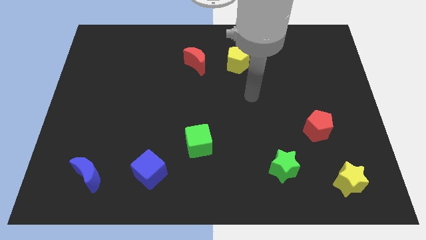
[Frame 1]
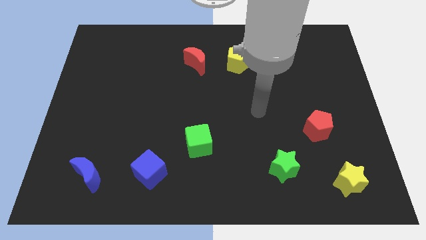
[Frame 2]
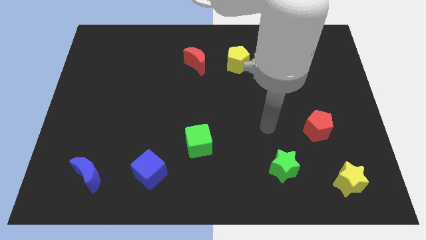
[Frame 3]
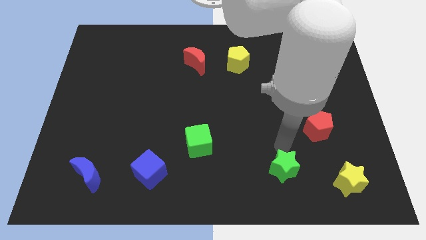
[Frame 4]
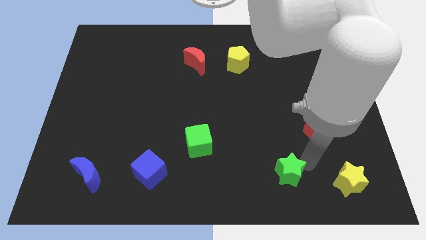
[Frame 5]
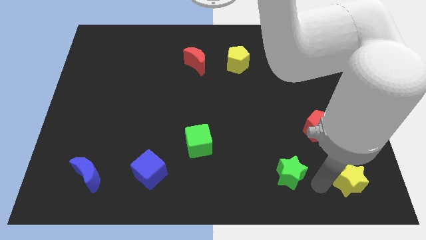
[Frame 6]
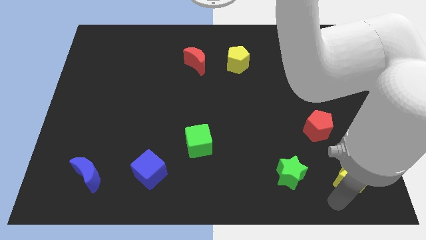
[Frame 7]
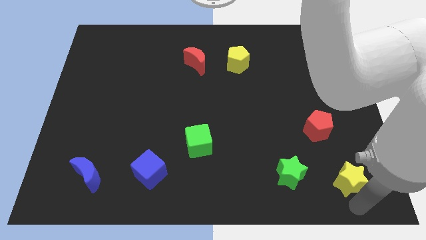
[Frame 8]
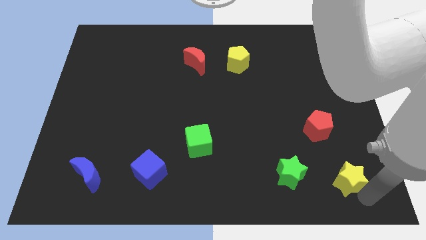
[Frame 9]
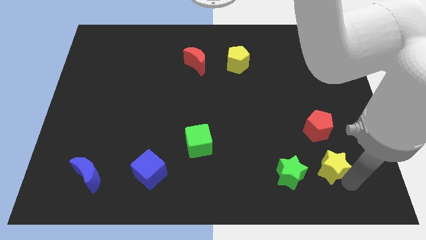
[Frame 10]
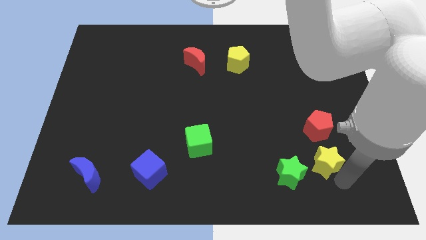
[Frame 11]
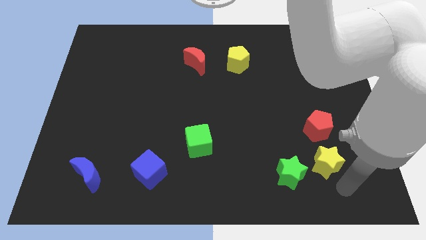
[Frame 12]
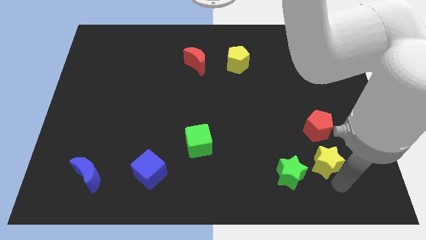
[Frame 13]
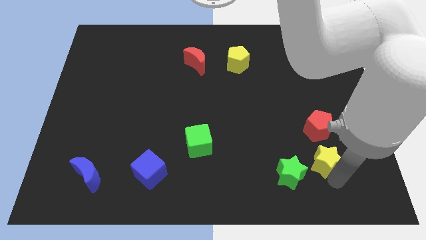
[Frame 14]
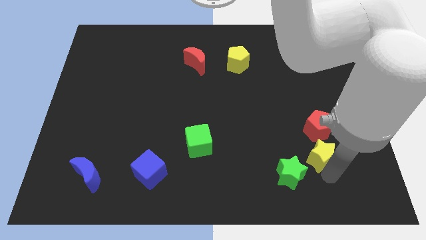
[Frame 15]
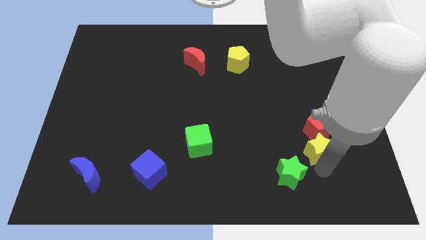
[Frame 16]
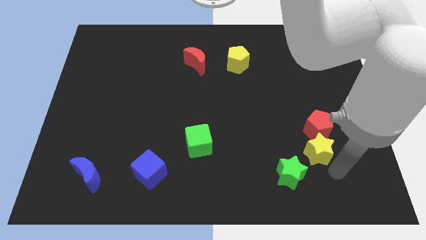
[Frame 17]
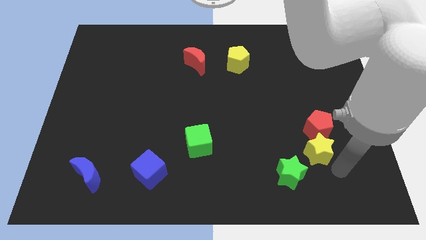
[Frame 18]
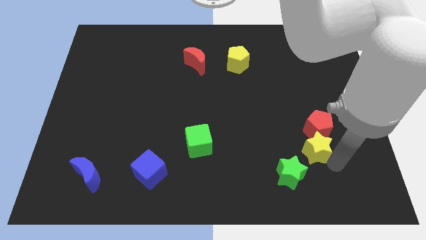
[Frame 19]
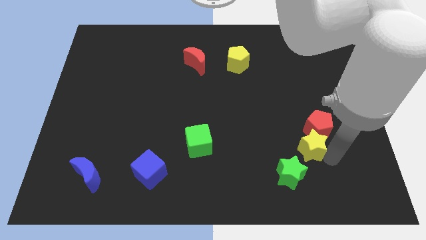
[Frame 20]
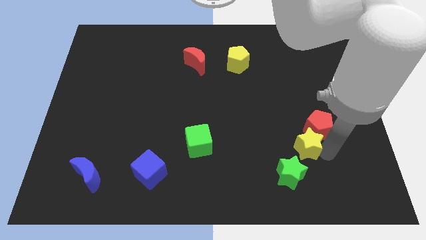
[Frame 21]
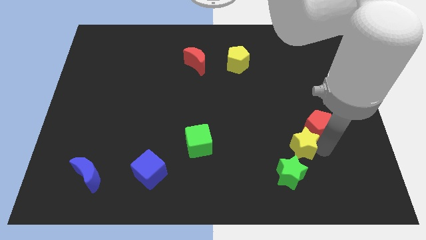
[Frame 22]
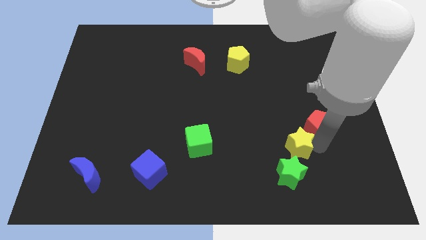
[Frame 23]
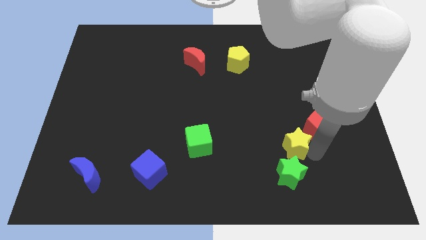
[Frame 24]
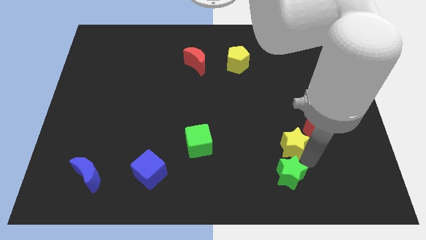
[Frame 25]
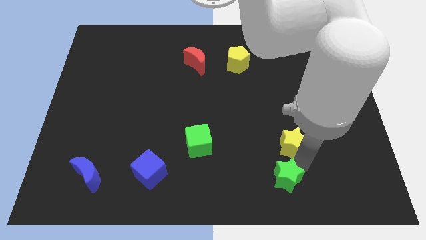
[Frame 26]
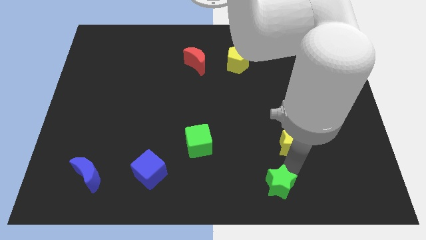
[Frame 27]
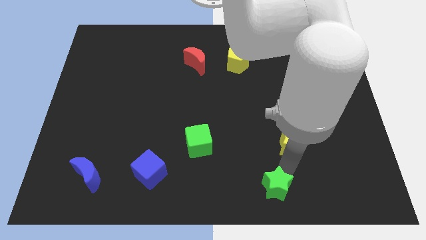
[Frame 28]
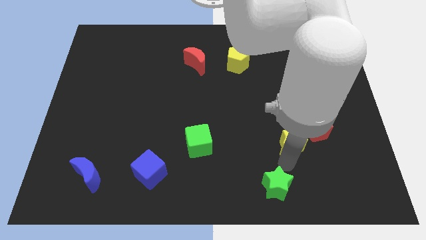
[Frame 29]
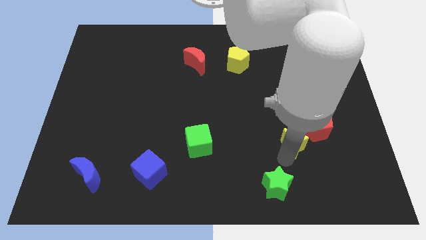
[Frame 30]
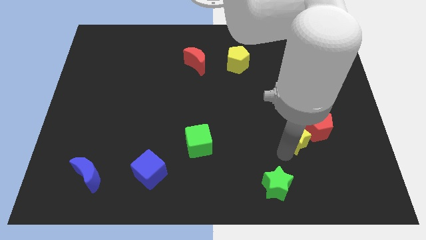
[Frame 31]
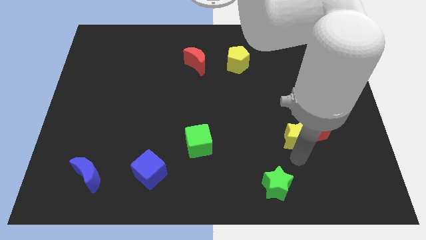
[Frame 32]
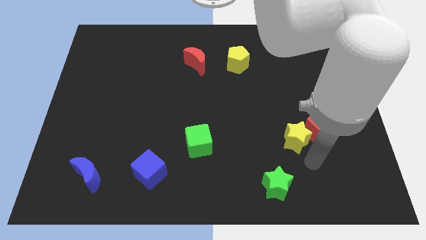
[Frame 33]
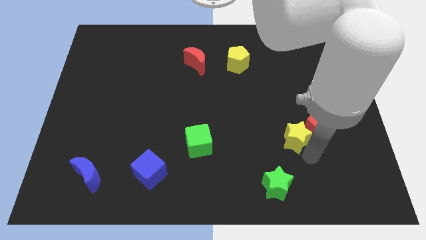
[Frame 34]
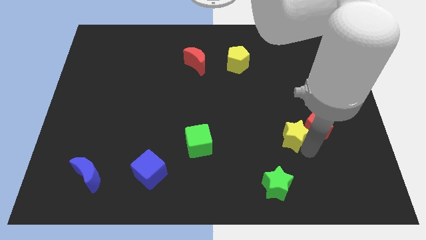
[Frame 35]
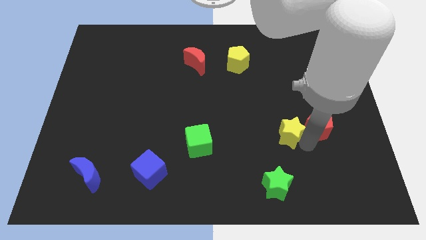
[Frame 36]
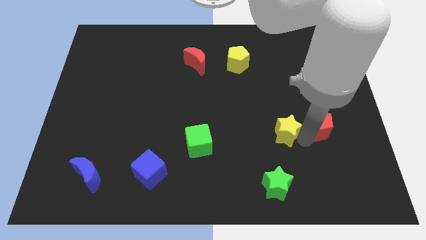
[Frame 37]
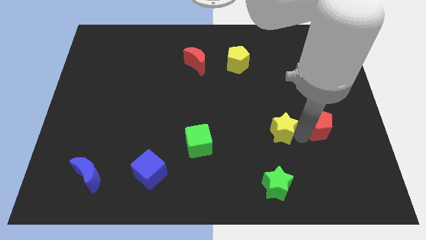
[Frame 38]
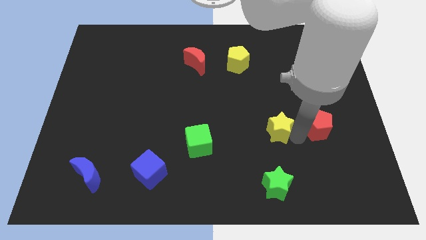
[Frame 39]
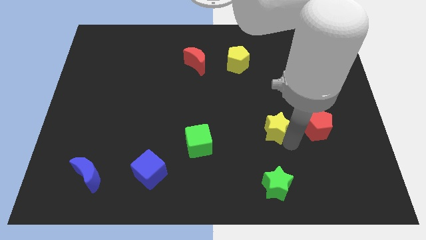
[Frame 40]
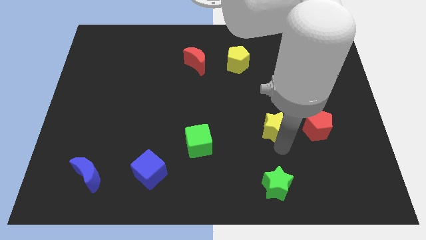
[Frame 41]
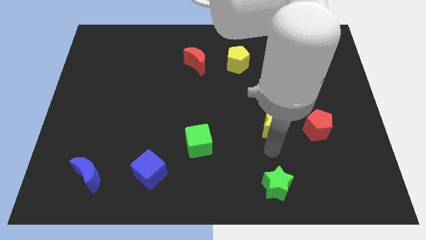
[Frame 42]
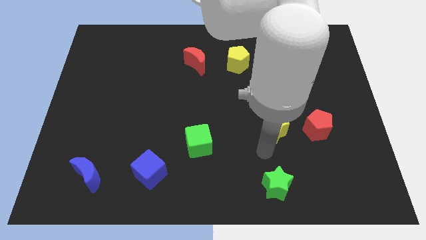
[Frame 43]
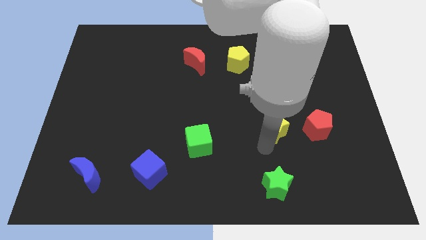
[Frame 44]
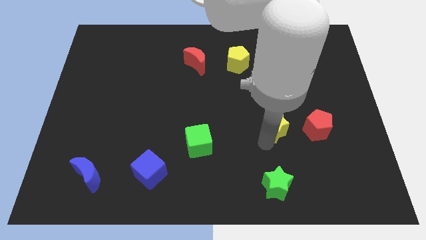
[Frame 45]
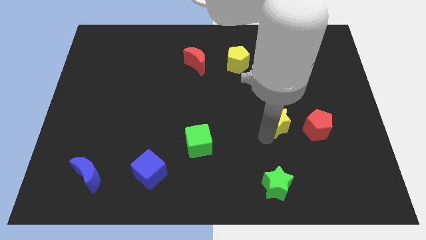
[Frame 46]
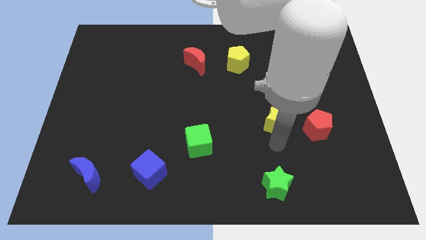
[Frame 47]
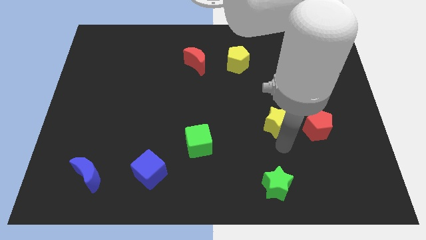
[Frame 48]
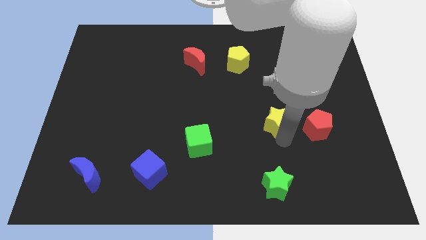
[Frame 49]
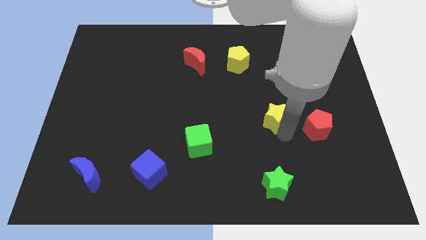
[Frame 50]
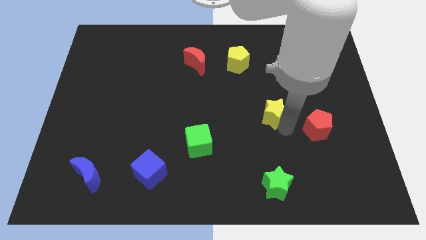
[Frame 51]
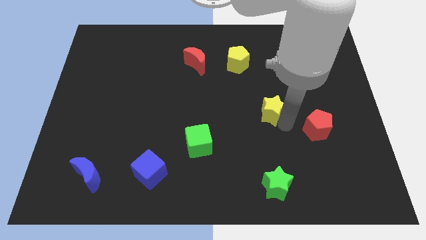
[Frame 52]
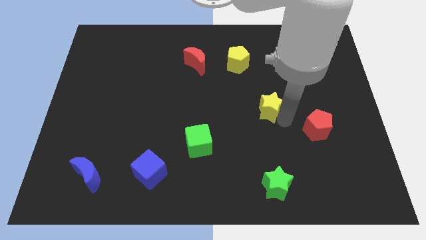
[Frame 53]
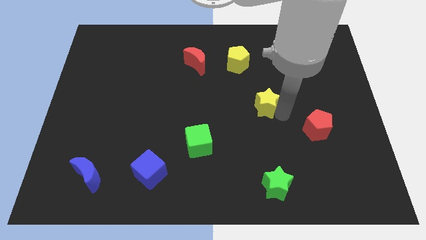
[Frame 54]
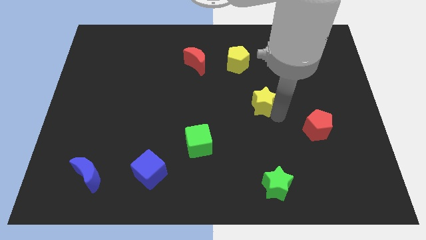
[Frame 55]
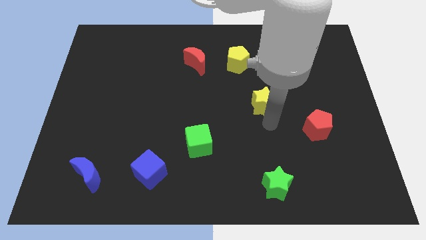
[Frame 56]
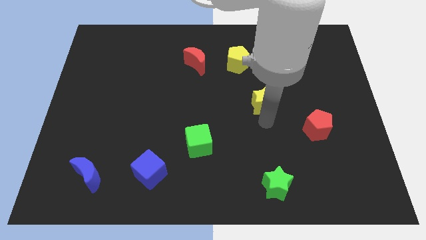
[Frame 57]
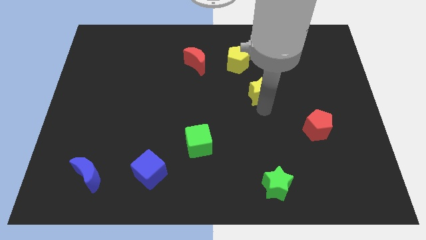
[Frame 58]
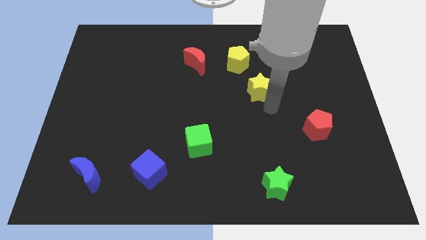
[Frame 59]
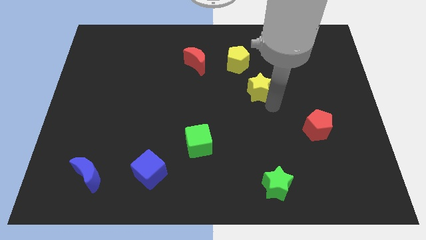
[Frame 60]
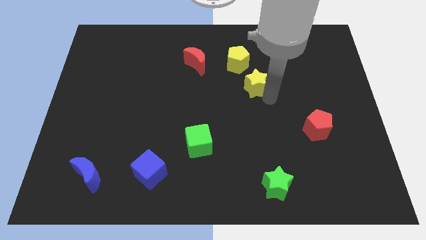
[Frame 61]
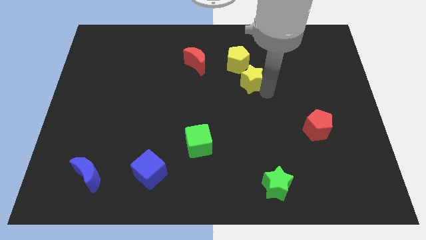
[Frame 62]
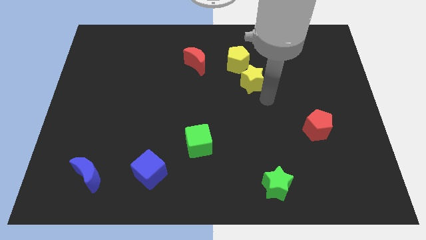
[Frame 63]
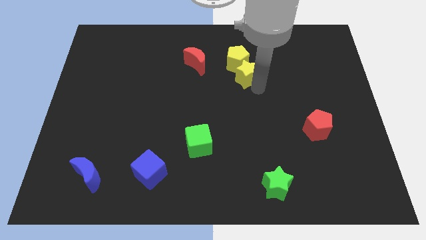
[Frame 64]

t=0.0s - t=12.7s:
push the yellow star towards the yellow pentagon

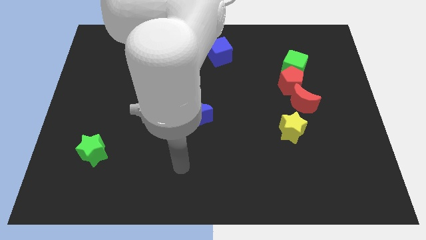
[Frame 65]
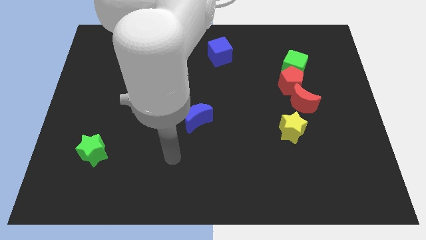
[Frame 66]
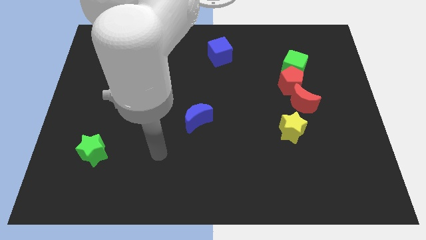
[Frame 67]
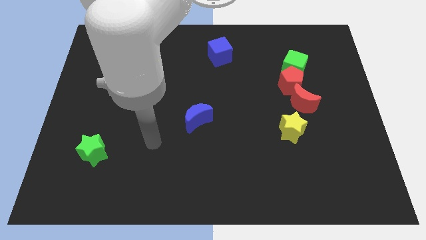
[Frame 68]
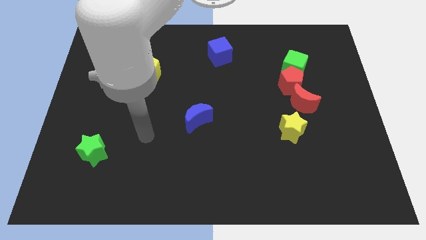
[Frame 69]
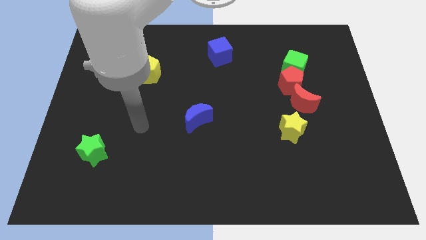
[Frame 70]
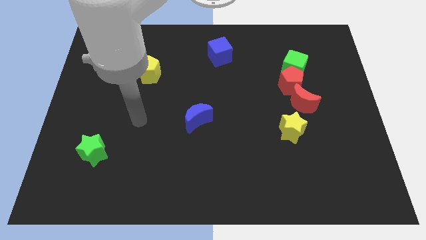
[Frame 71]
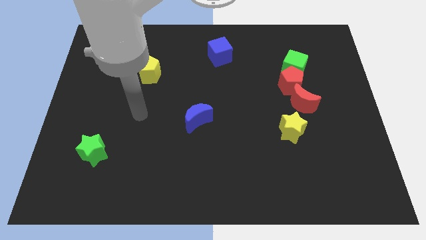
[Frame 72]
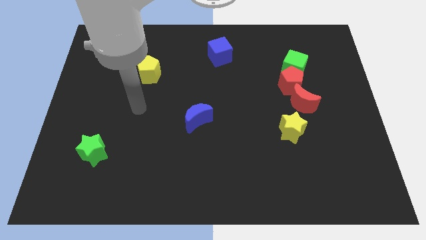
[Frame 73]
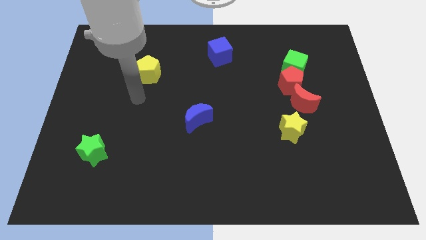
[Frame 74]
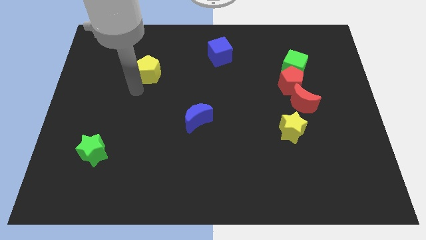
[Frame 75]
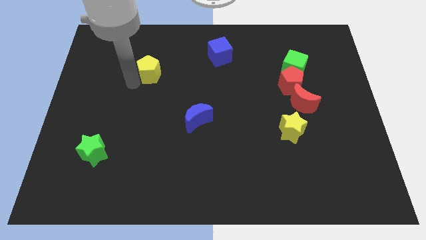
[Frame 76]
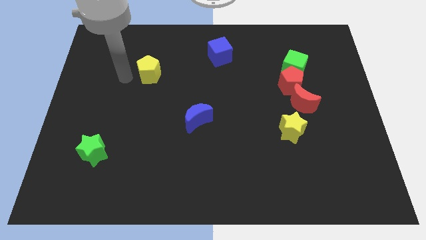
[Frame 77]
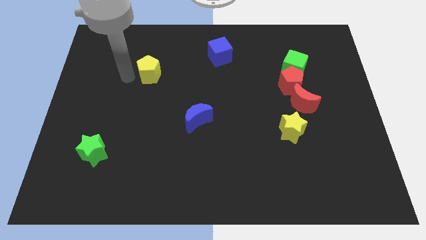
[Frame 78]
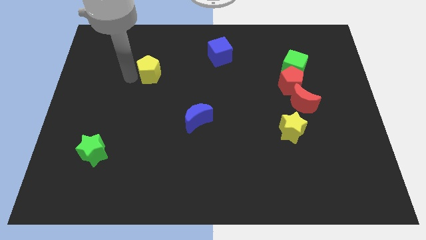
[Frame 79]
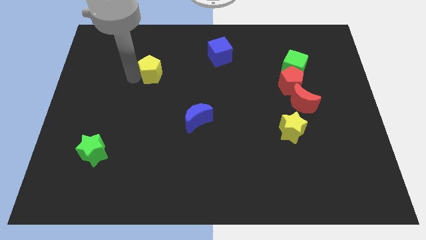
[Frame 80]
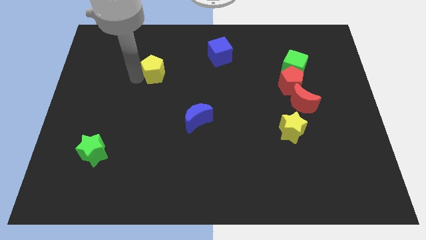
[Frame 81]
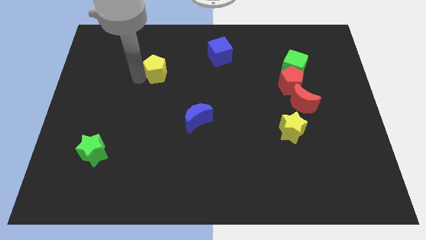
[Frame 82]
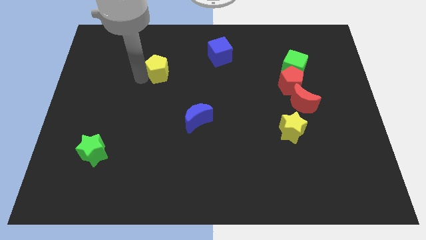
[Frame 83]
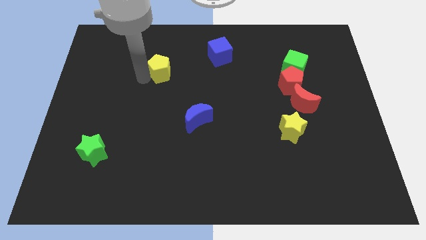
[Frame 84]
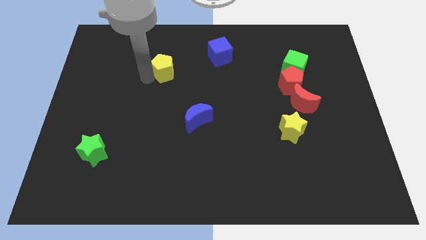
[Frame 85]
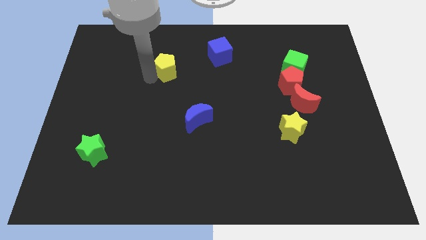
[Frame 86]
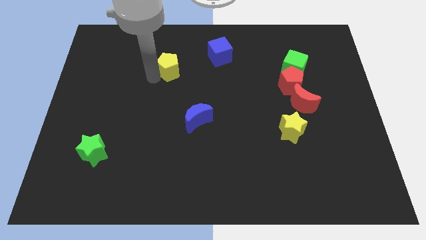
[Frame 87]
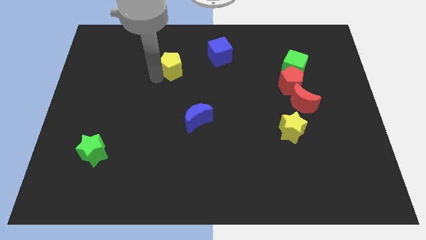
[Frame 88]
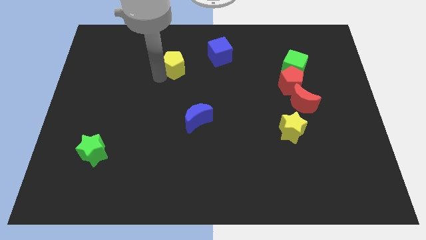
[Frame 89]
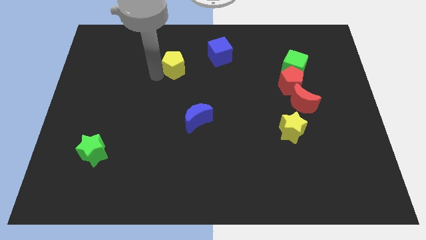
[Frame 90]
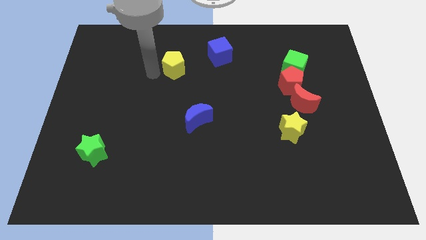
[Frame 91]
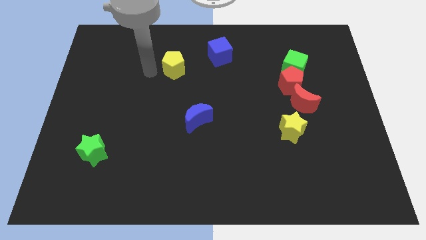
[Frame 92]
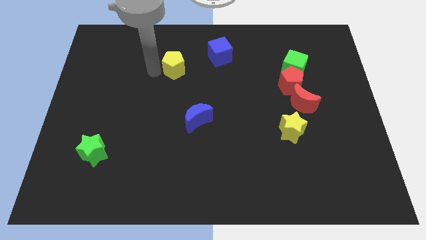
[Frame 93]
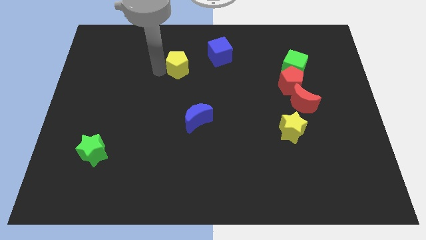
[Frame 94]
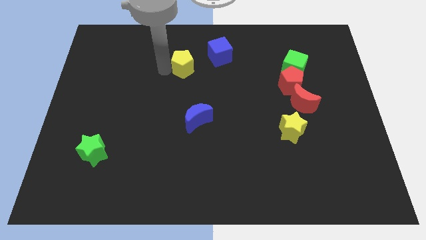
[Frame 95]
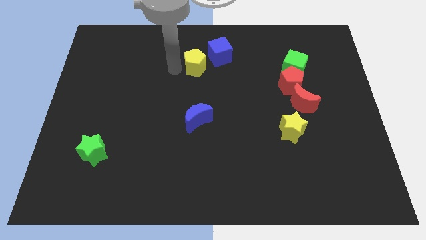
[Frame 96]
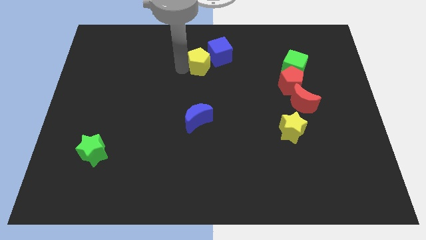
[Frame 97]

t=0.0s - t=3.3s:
push the yellow pentagon close to the blue cube
